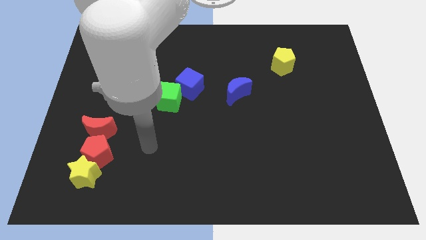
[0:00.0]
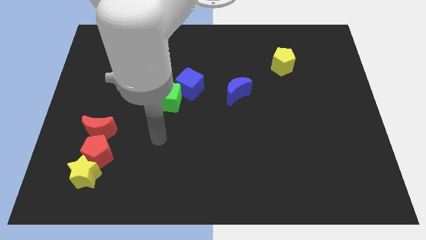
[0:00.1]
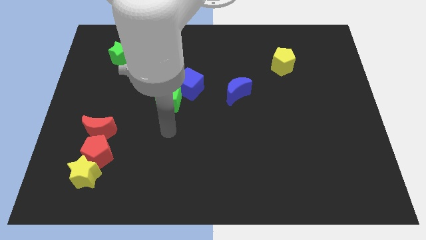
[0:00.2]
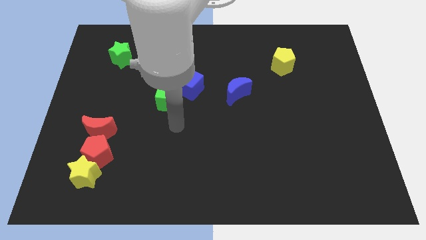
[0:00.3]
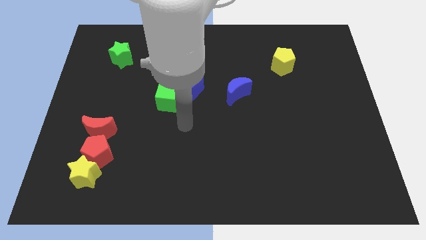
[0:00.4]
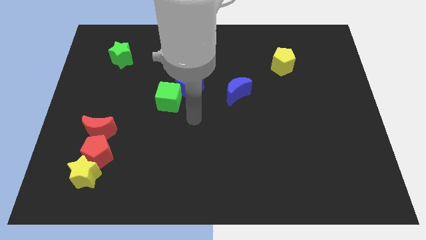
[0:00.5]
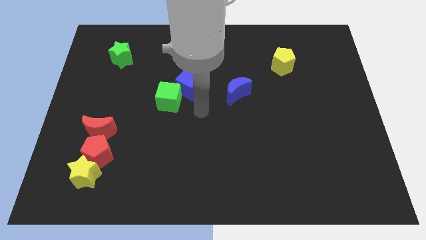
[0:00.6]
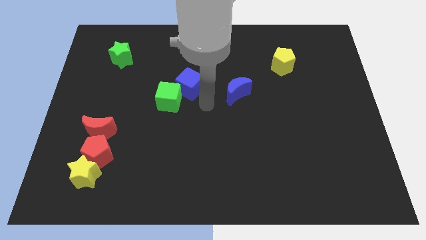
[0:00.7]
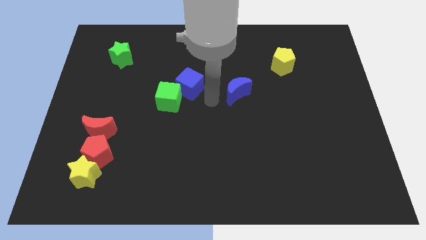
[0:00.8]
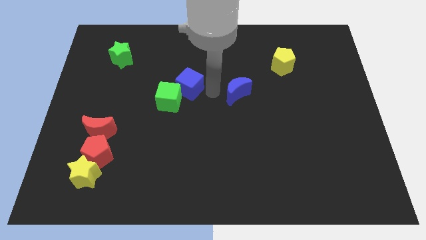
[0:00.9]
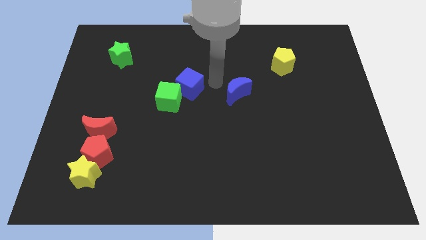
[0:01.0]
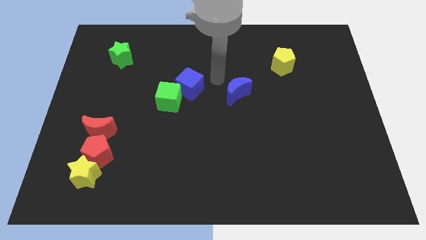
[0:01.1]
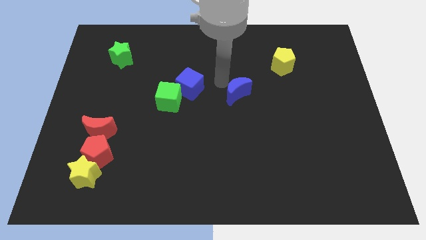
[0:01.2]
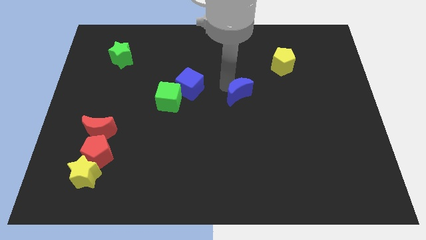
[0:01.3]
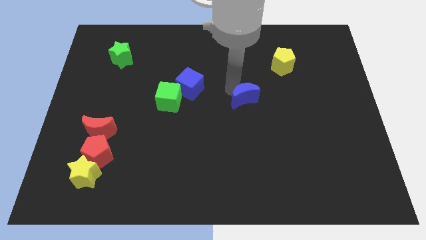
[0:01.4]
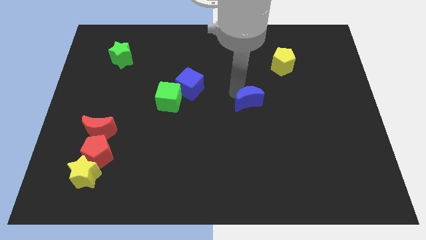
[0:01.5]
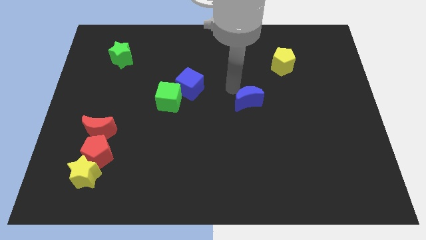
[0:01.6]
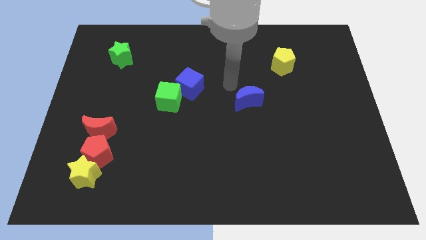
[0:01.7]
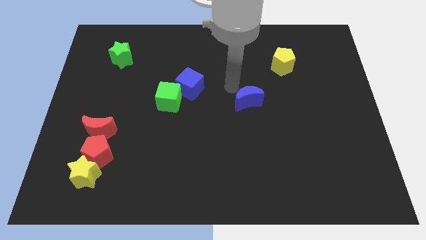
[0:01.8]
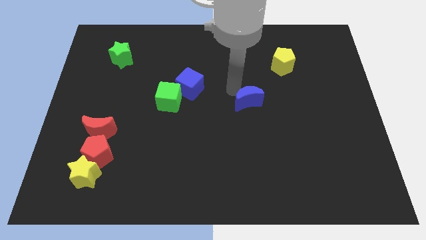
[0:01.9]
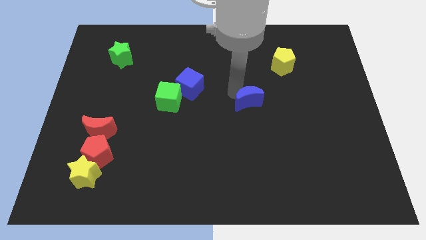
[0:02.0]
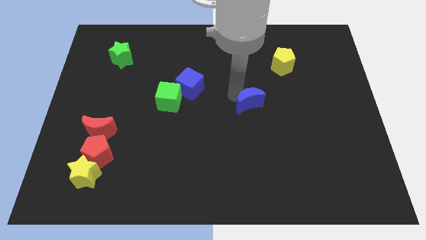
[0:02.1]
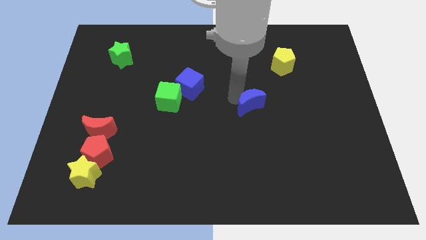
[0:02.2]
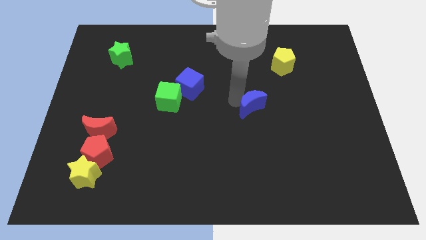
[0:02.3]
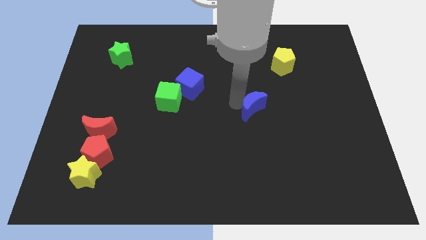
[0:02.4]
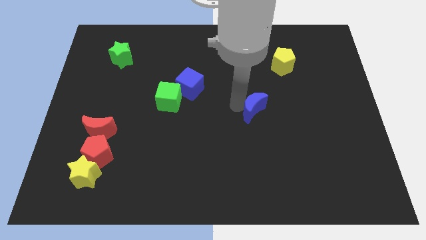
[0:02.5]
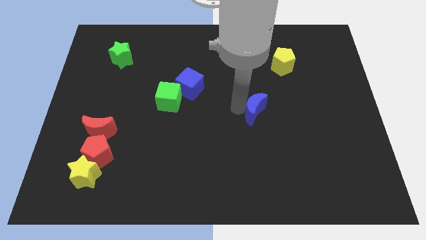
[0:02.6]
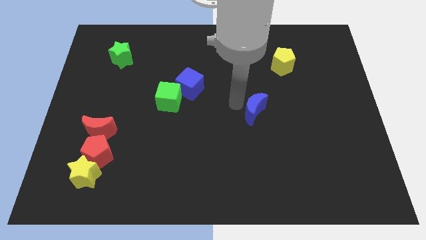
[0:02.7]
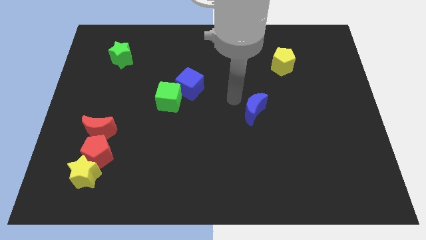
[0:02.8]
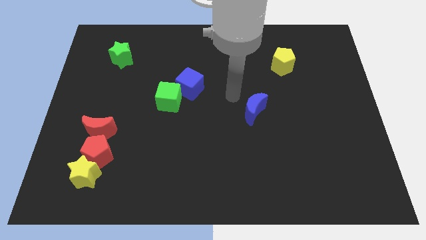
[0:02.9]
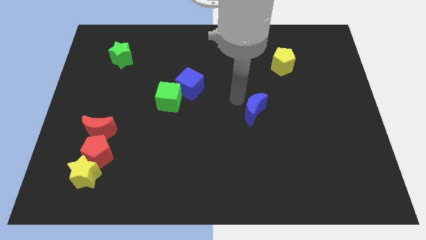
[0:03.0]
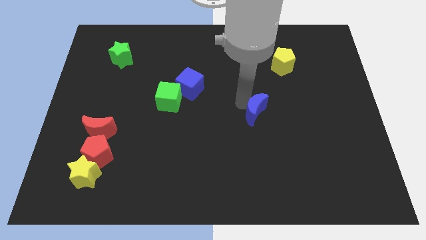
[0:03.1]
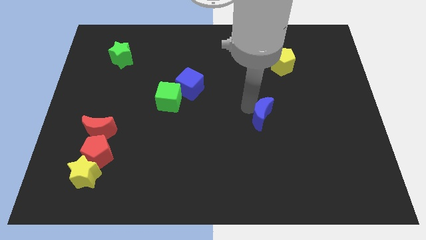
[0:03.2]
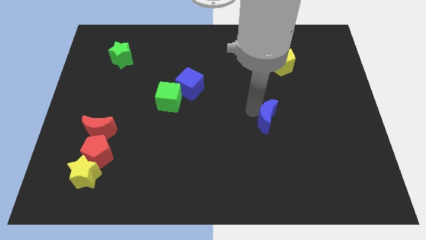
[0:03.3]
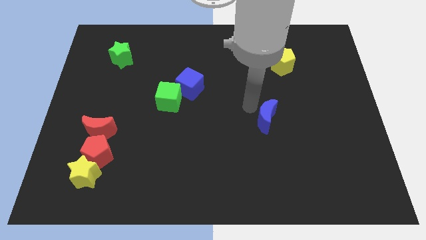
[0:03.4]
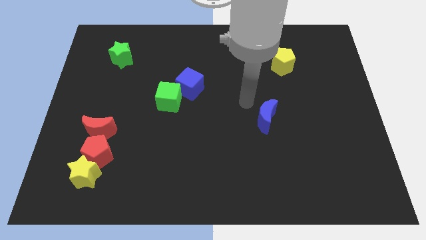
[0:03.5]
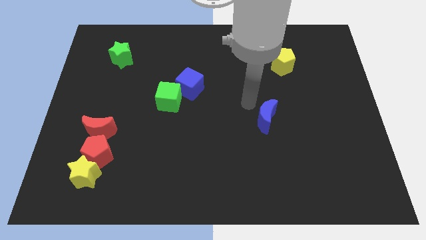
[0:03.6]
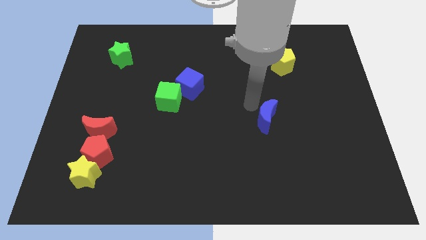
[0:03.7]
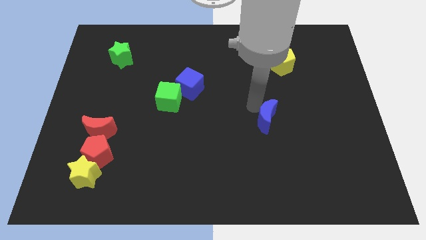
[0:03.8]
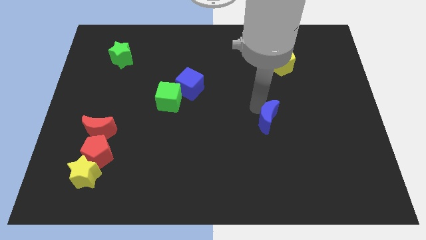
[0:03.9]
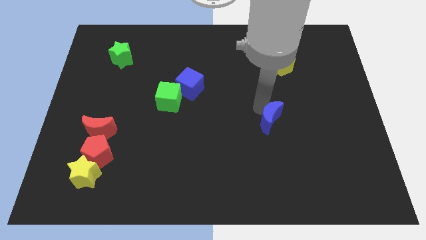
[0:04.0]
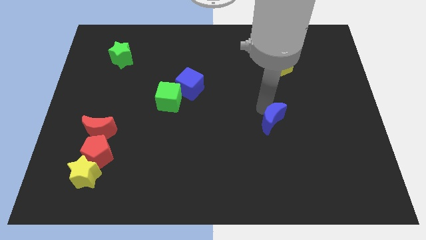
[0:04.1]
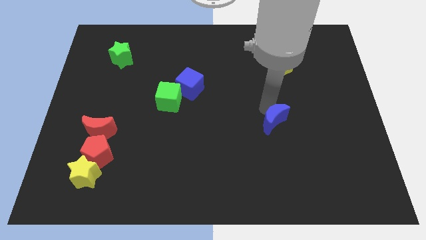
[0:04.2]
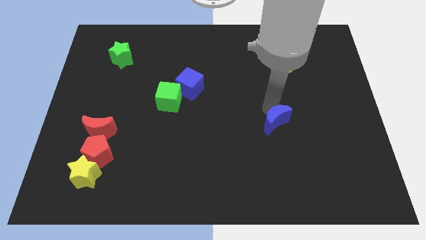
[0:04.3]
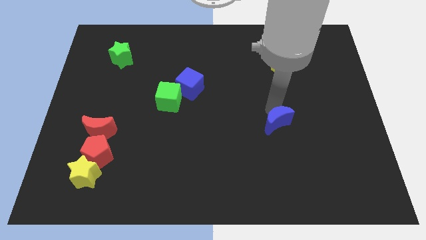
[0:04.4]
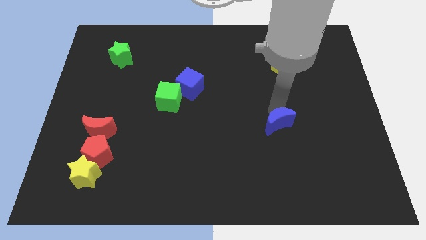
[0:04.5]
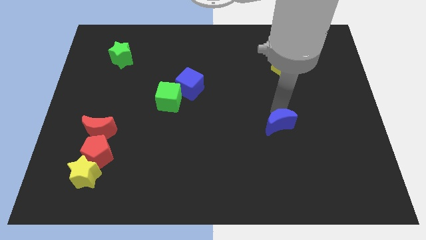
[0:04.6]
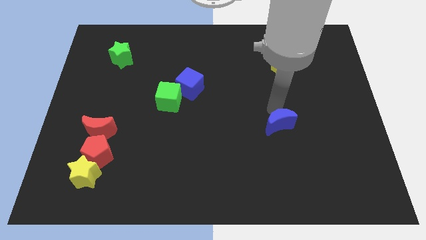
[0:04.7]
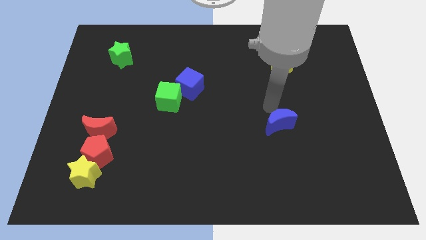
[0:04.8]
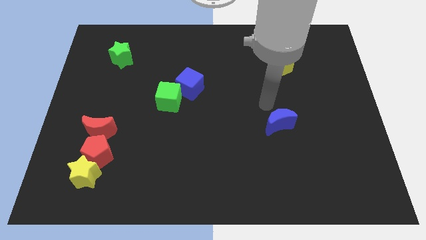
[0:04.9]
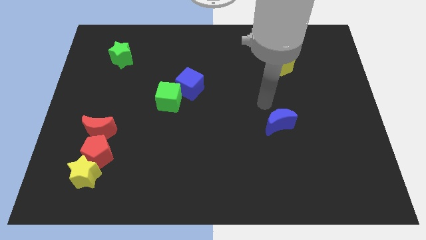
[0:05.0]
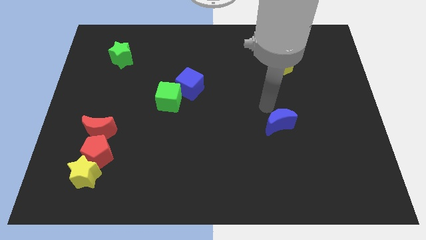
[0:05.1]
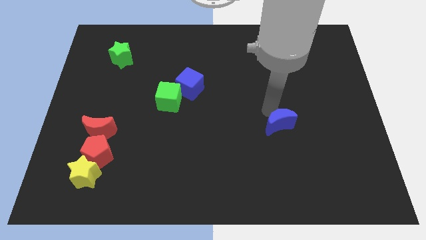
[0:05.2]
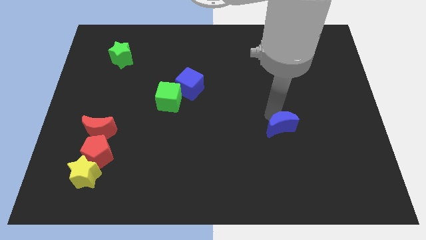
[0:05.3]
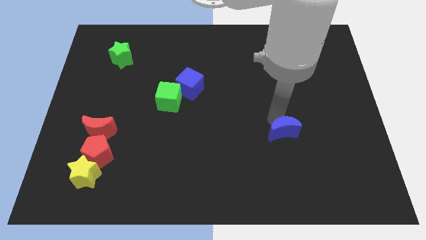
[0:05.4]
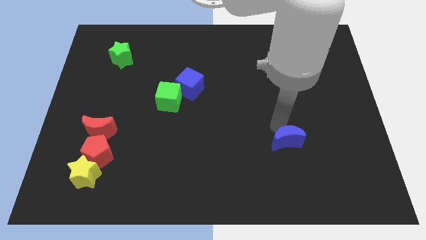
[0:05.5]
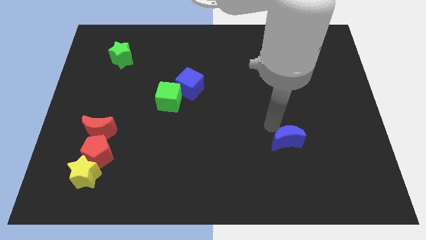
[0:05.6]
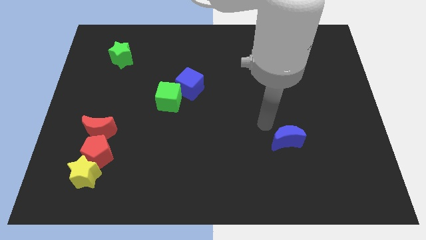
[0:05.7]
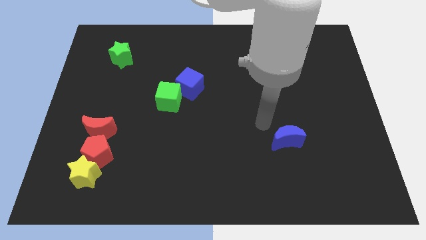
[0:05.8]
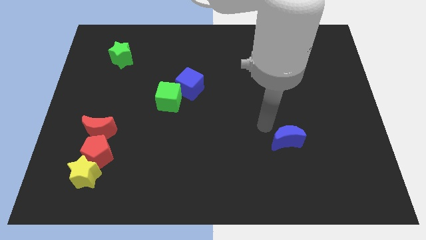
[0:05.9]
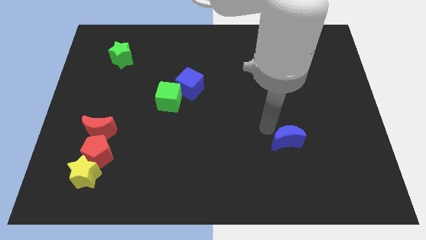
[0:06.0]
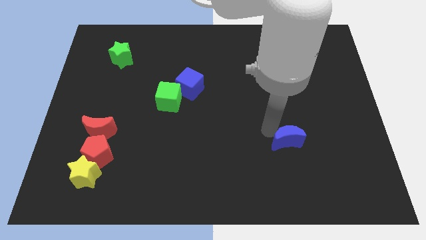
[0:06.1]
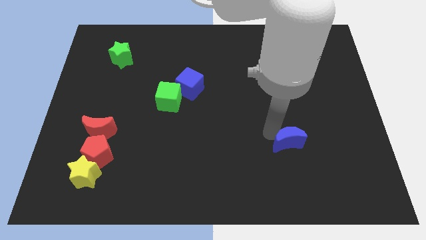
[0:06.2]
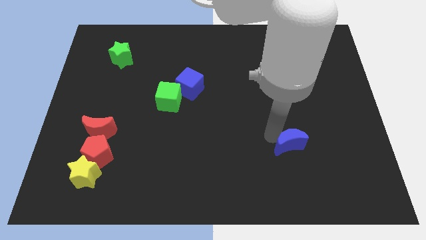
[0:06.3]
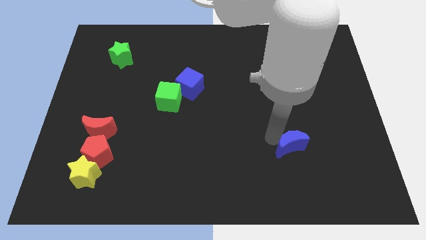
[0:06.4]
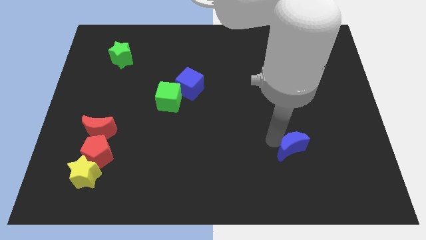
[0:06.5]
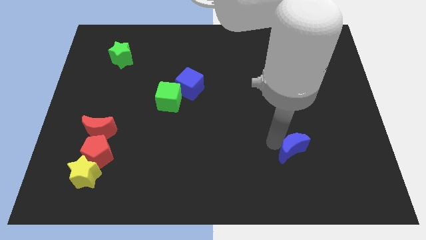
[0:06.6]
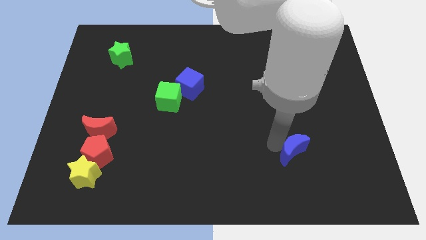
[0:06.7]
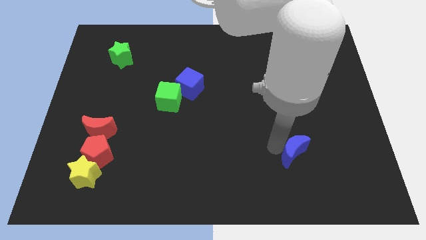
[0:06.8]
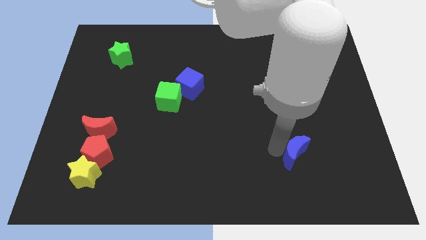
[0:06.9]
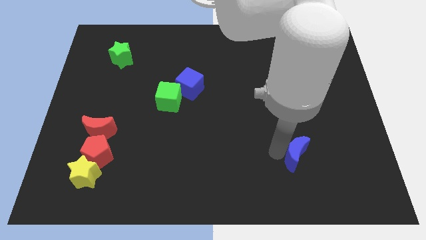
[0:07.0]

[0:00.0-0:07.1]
push the blue moon diagonally downwards and to the right

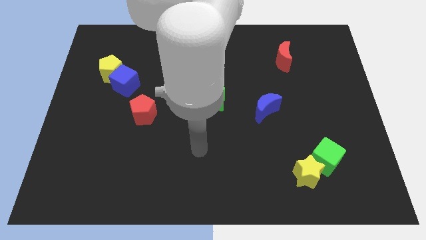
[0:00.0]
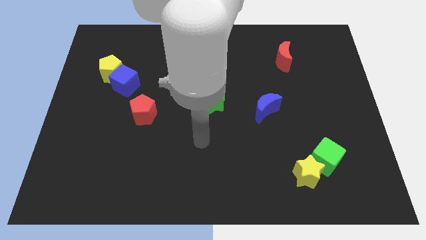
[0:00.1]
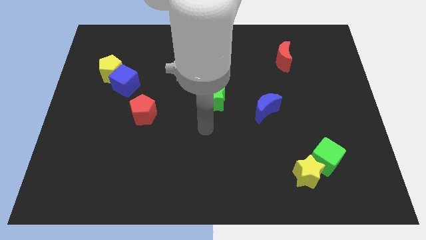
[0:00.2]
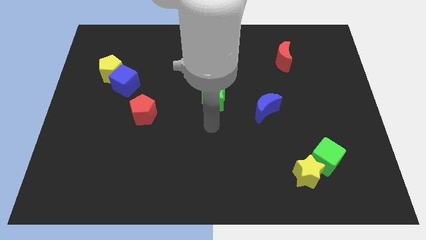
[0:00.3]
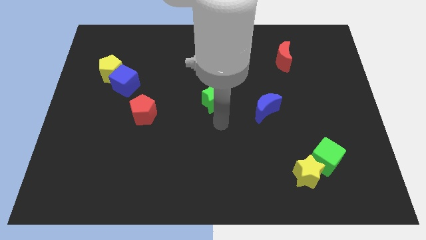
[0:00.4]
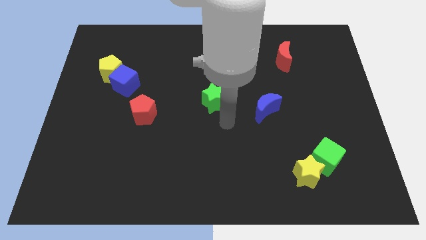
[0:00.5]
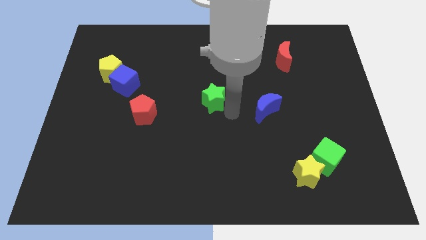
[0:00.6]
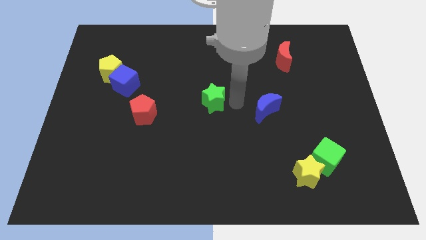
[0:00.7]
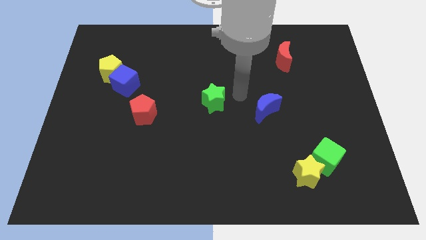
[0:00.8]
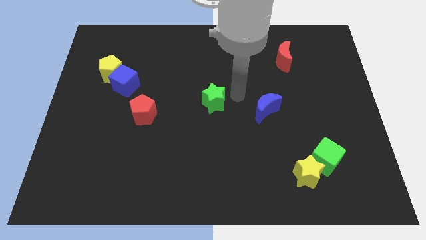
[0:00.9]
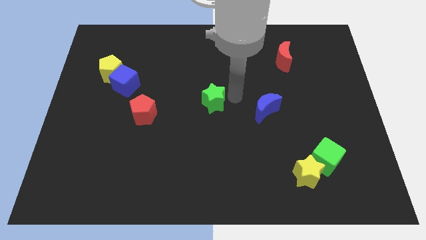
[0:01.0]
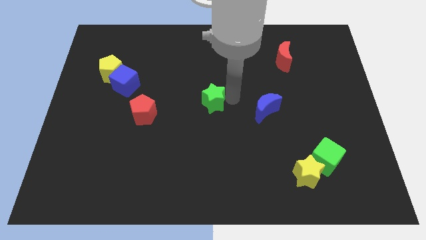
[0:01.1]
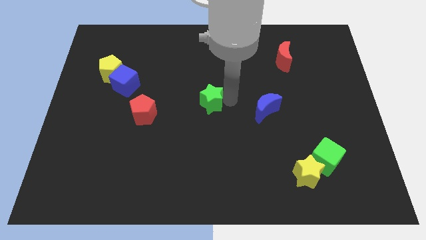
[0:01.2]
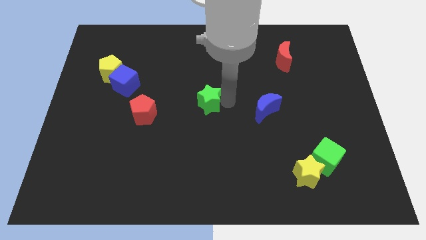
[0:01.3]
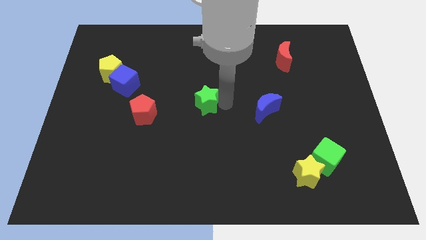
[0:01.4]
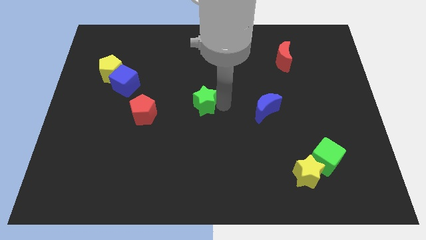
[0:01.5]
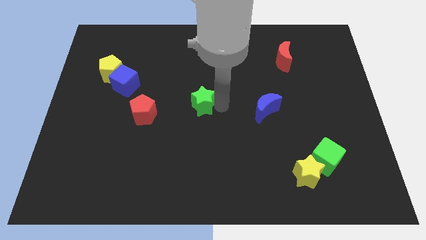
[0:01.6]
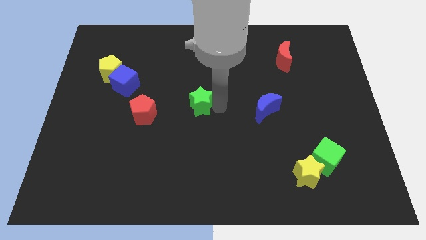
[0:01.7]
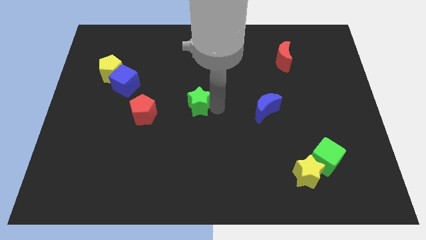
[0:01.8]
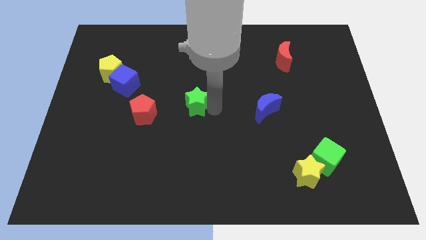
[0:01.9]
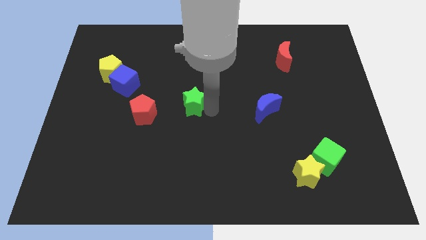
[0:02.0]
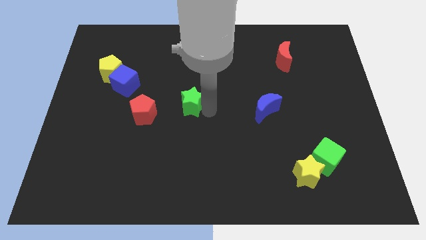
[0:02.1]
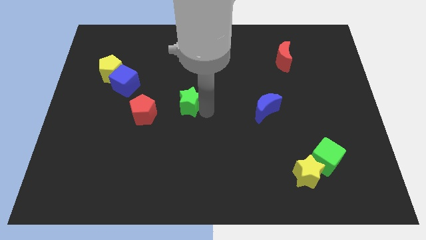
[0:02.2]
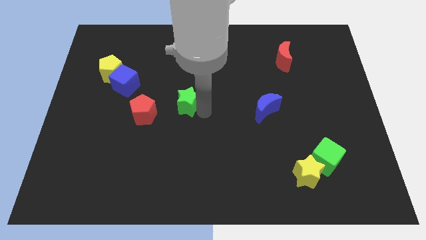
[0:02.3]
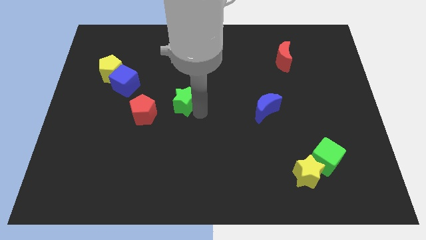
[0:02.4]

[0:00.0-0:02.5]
slide the green star left somewhat
